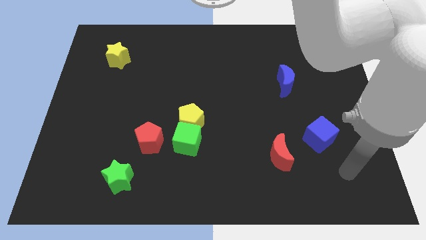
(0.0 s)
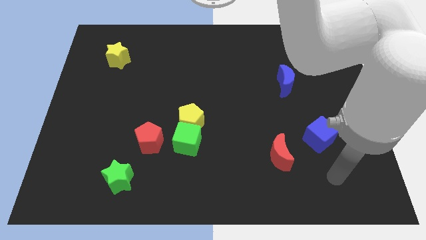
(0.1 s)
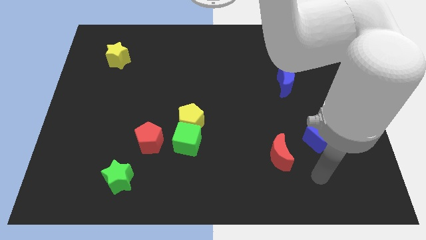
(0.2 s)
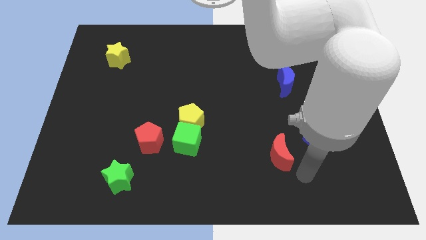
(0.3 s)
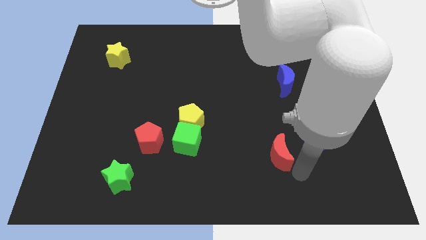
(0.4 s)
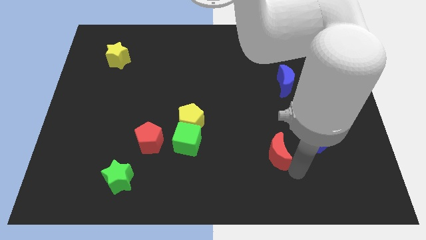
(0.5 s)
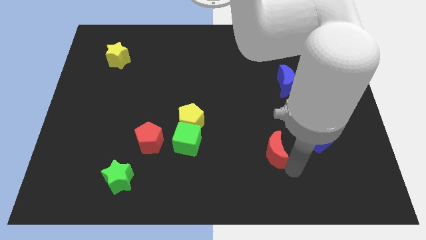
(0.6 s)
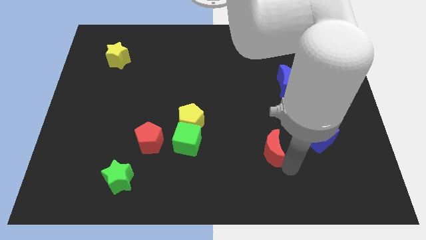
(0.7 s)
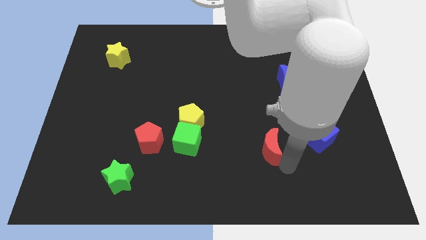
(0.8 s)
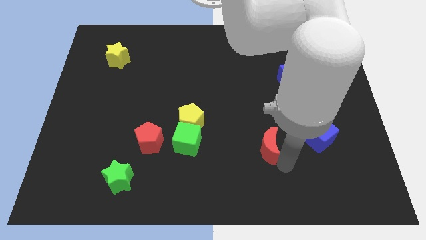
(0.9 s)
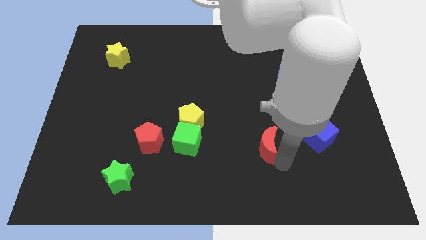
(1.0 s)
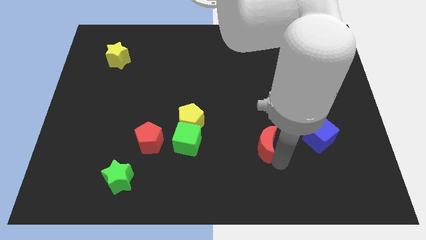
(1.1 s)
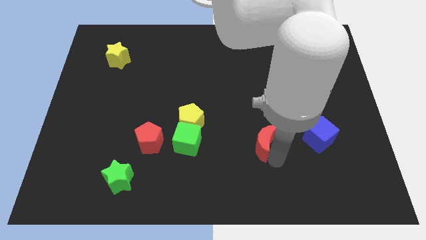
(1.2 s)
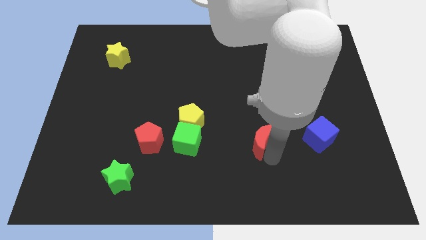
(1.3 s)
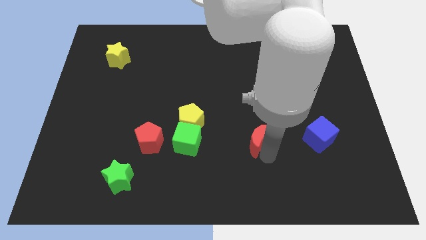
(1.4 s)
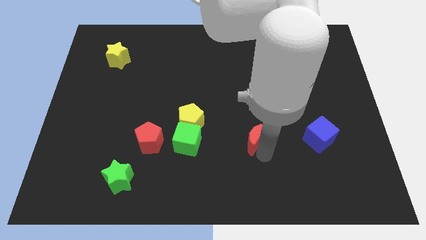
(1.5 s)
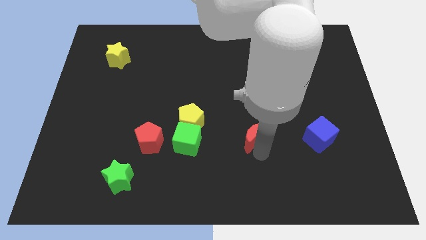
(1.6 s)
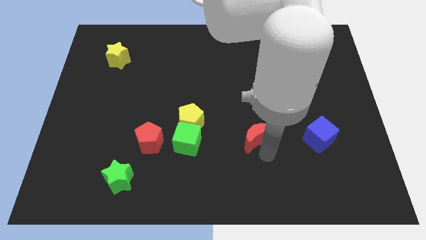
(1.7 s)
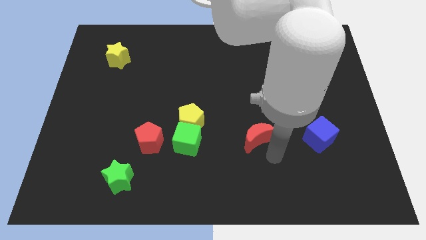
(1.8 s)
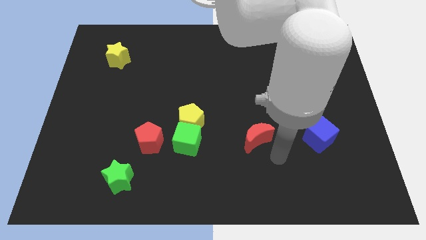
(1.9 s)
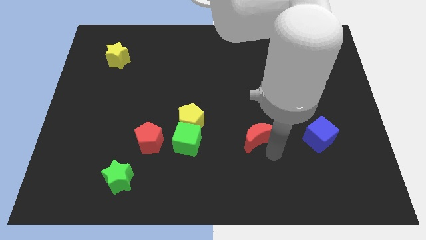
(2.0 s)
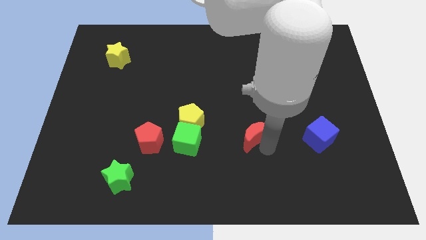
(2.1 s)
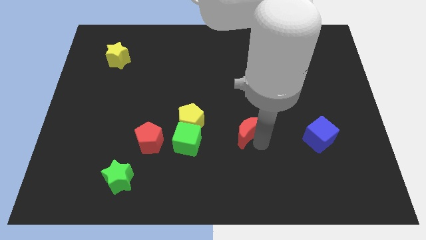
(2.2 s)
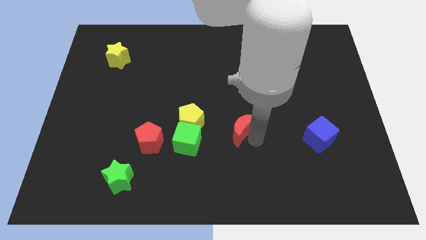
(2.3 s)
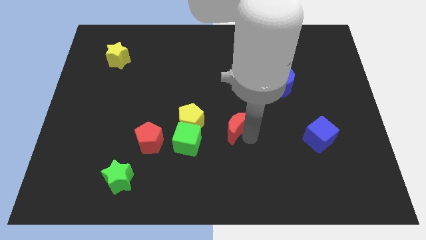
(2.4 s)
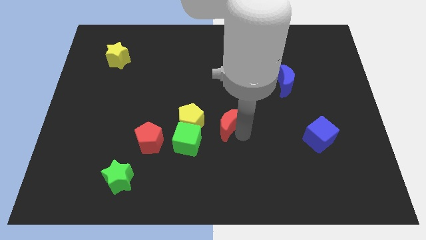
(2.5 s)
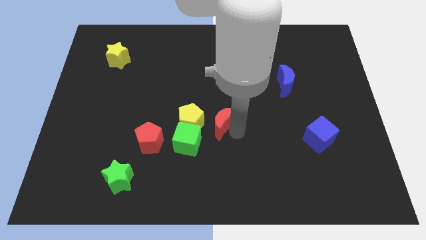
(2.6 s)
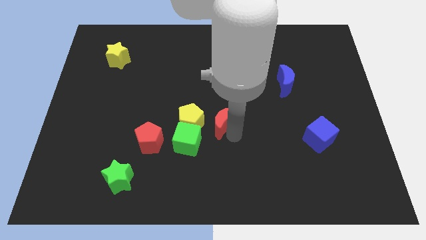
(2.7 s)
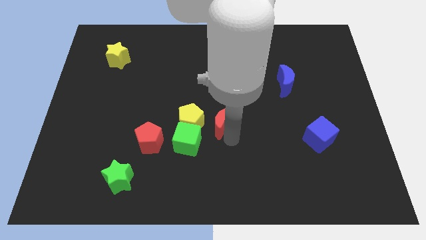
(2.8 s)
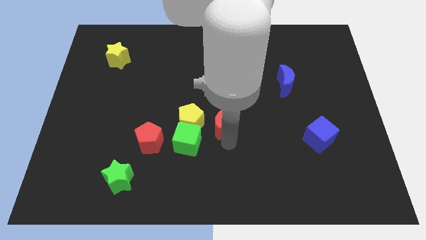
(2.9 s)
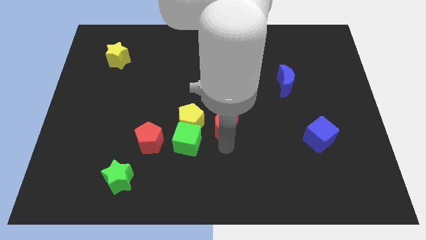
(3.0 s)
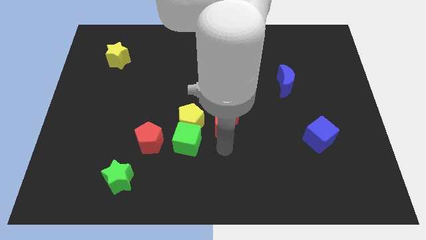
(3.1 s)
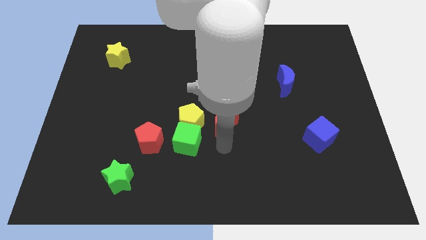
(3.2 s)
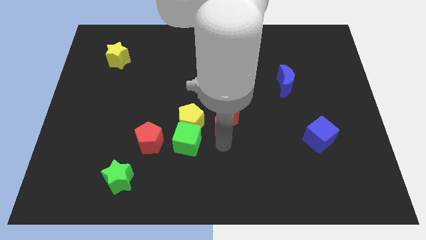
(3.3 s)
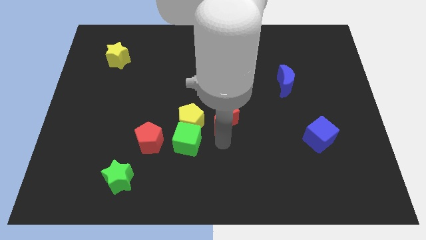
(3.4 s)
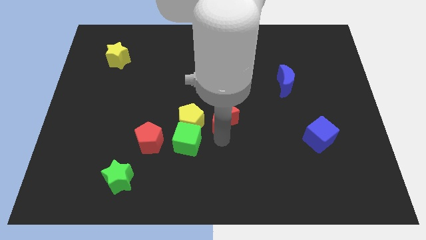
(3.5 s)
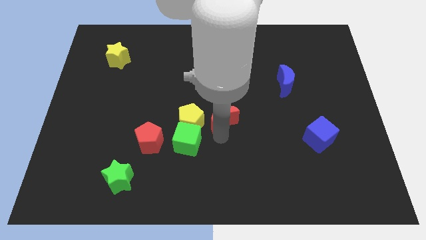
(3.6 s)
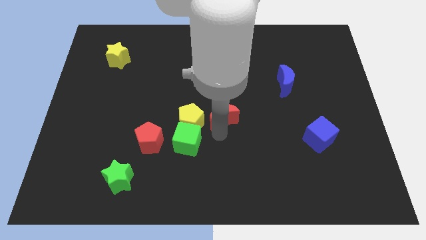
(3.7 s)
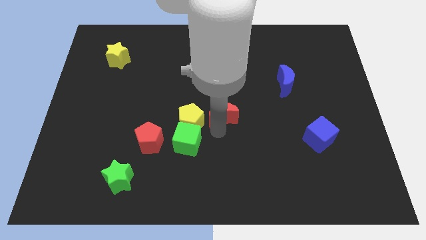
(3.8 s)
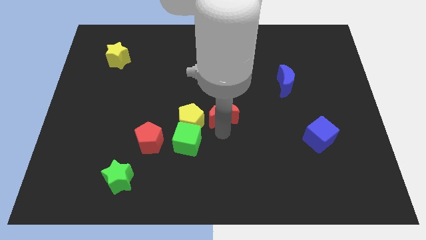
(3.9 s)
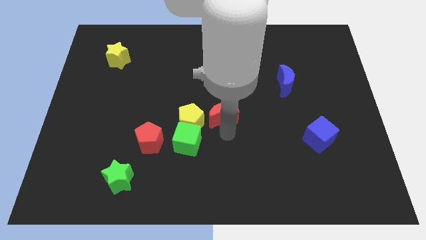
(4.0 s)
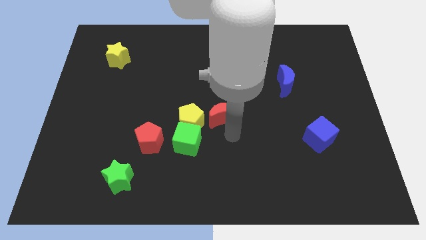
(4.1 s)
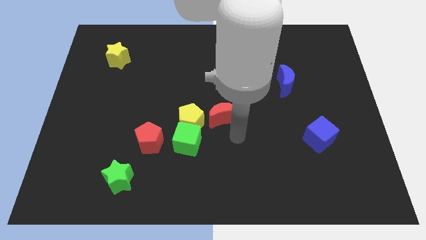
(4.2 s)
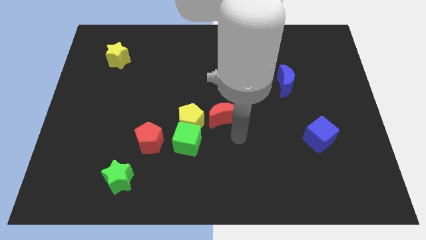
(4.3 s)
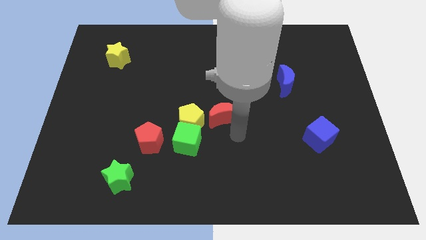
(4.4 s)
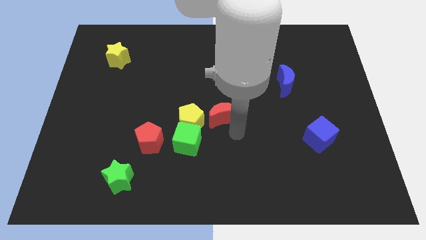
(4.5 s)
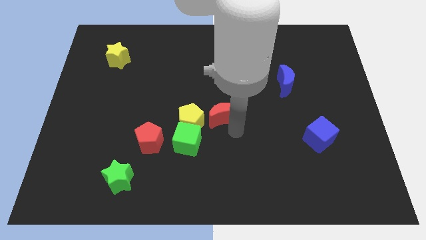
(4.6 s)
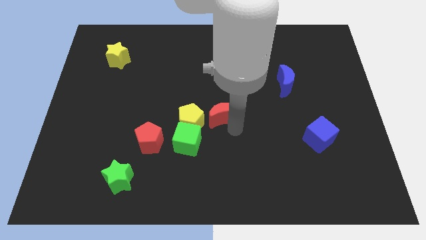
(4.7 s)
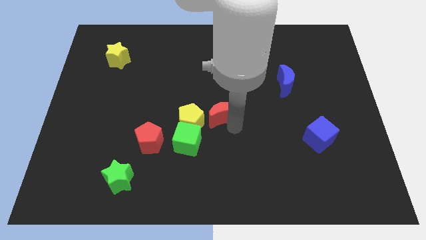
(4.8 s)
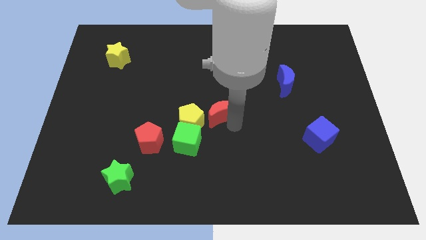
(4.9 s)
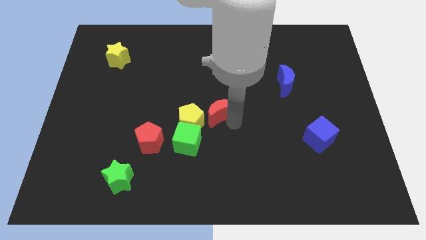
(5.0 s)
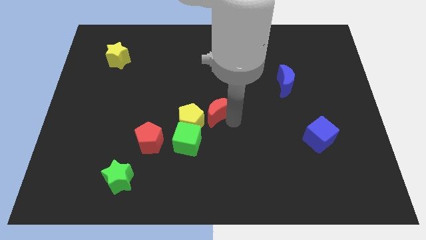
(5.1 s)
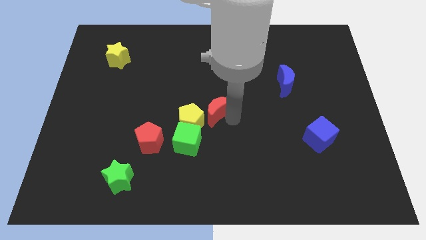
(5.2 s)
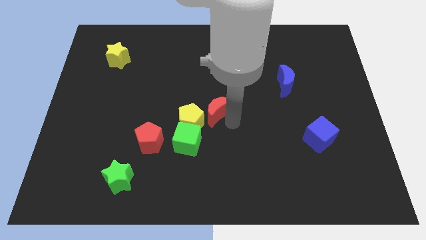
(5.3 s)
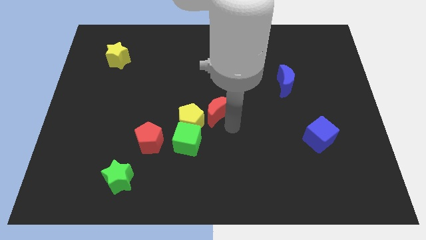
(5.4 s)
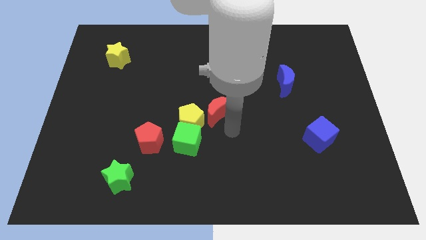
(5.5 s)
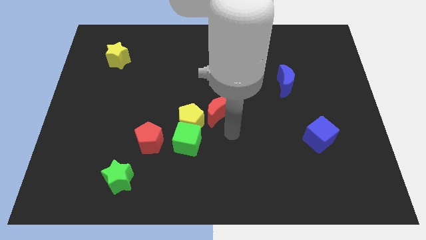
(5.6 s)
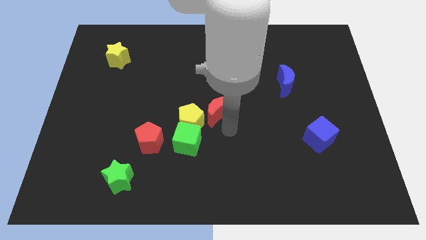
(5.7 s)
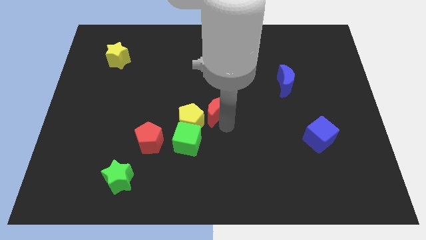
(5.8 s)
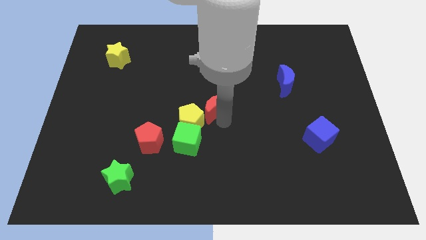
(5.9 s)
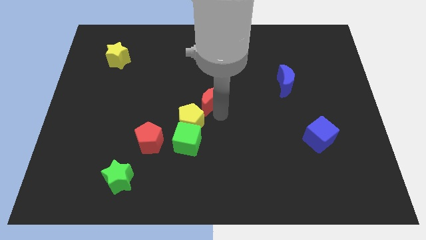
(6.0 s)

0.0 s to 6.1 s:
slide the red moon upwards and then left

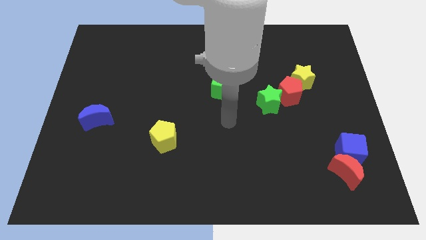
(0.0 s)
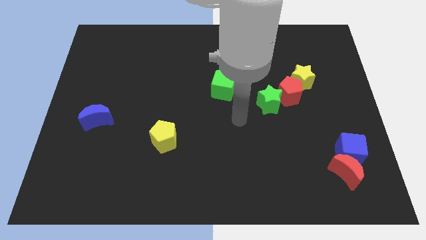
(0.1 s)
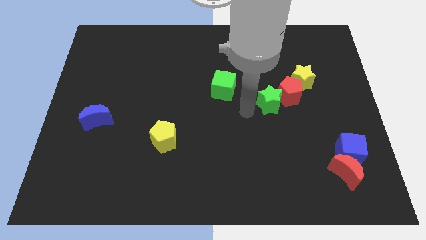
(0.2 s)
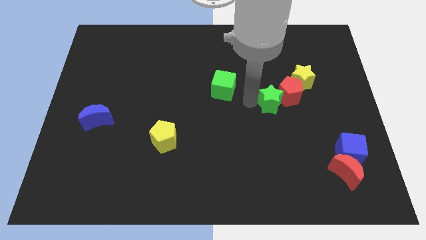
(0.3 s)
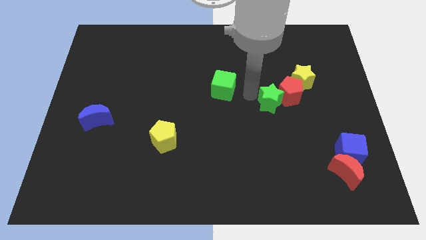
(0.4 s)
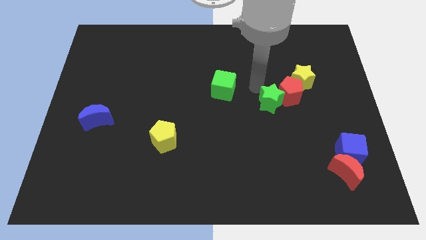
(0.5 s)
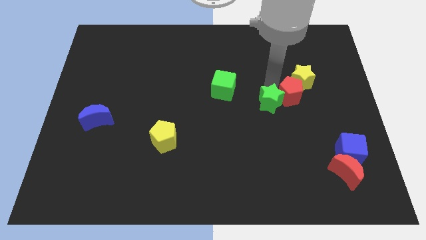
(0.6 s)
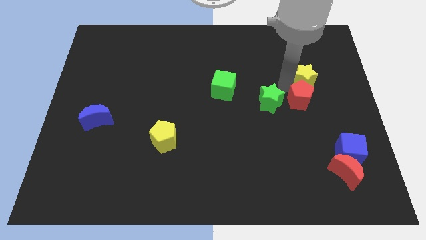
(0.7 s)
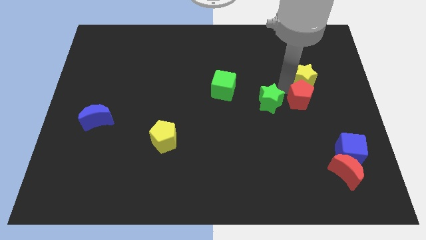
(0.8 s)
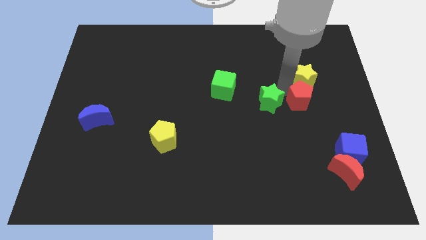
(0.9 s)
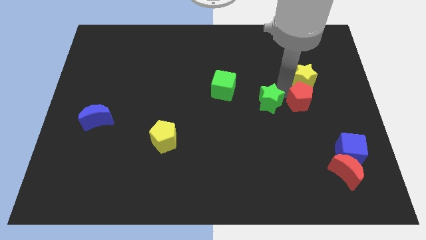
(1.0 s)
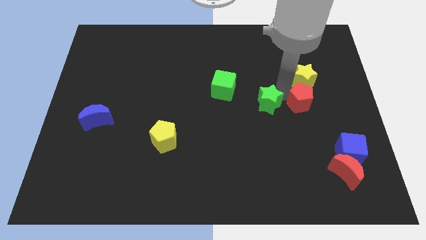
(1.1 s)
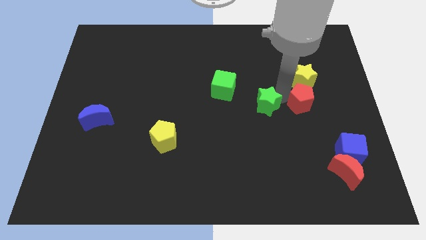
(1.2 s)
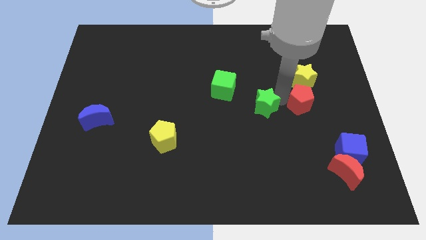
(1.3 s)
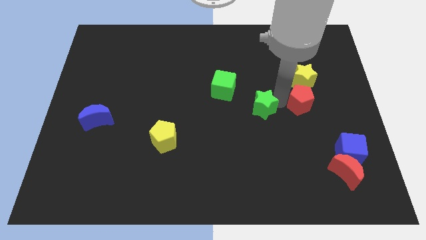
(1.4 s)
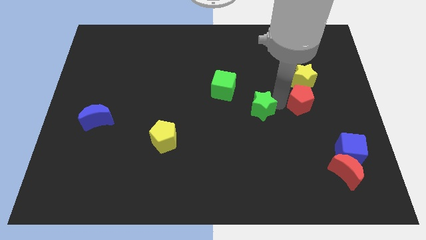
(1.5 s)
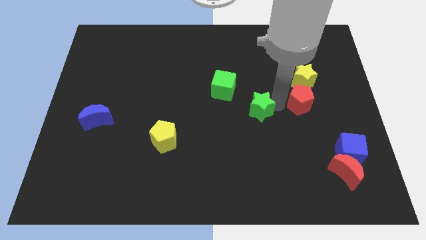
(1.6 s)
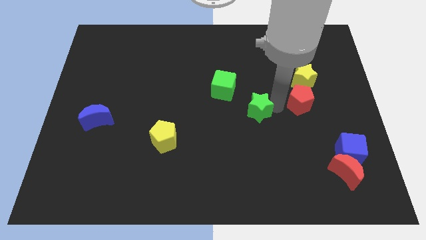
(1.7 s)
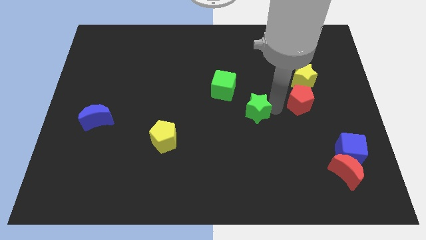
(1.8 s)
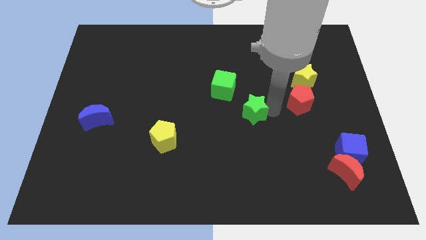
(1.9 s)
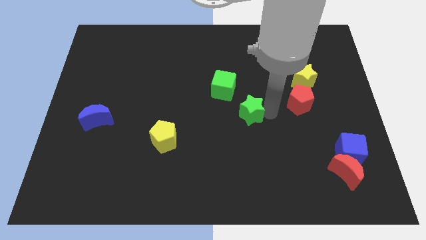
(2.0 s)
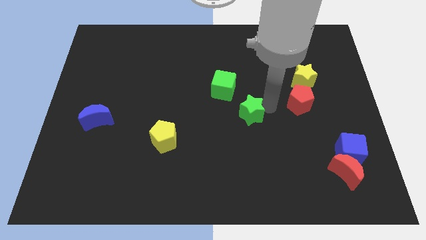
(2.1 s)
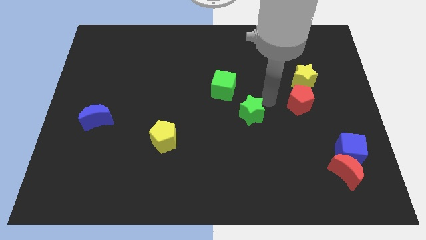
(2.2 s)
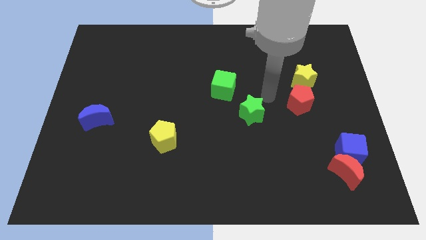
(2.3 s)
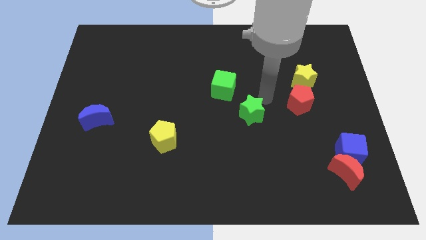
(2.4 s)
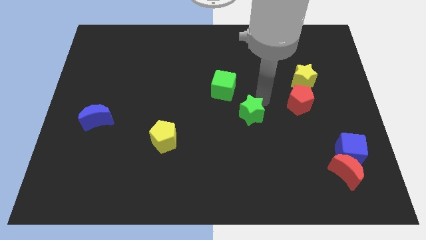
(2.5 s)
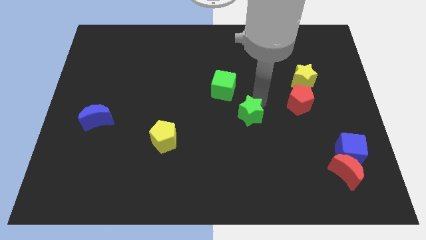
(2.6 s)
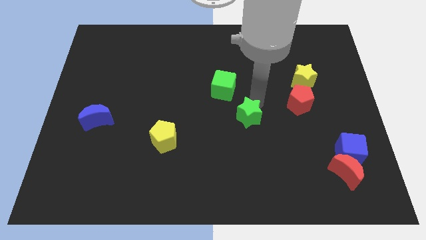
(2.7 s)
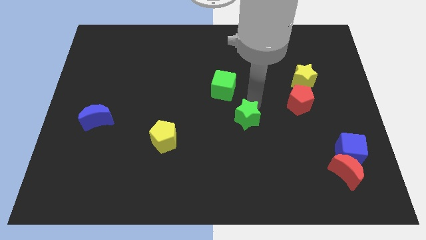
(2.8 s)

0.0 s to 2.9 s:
move the green star downwards and then left slightly
